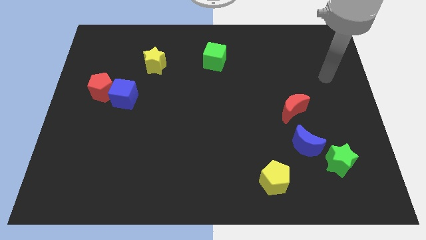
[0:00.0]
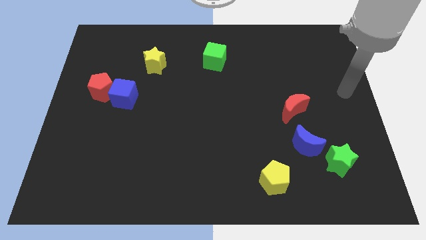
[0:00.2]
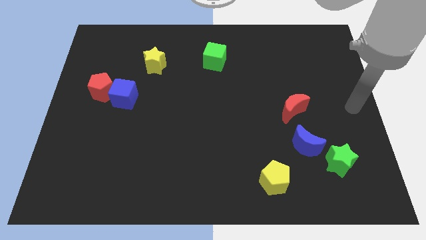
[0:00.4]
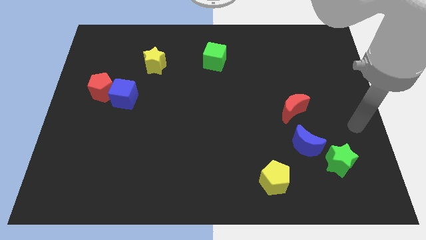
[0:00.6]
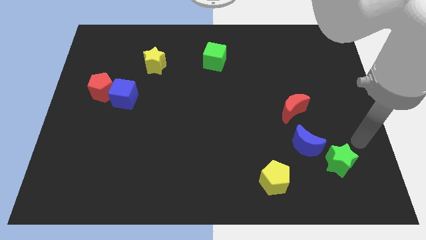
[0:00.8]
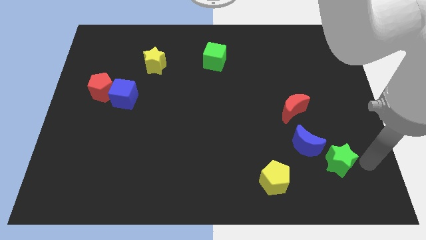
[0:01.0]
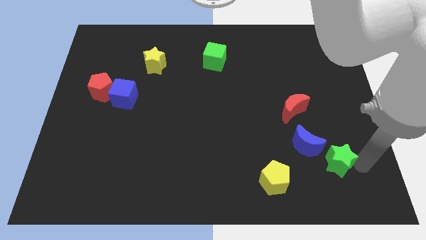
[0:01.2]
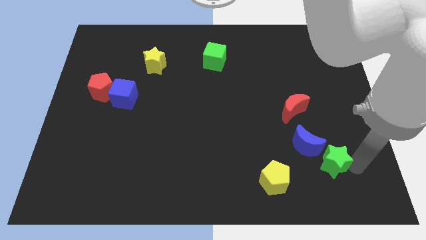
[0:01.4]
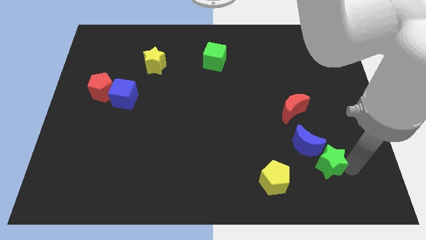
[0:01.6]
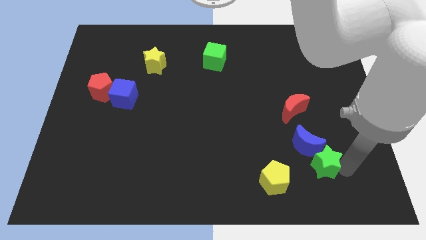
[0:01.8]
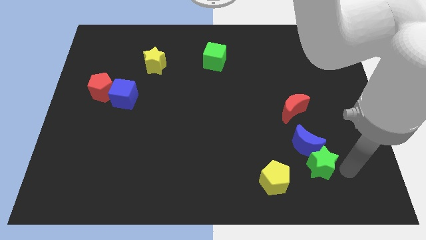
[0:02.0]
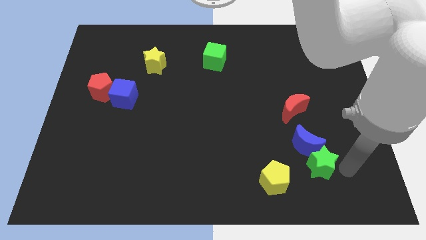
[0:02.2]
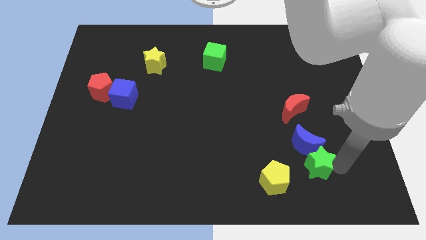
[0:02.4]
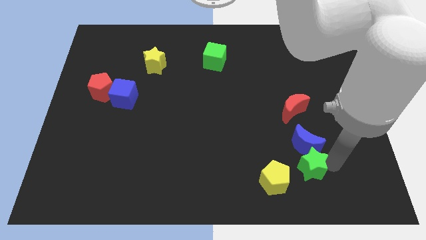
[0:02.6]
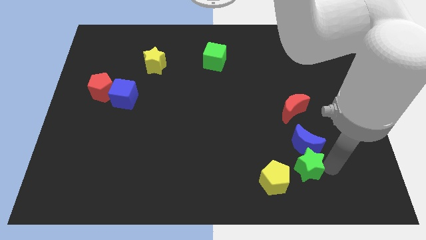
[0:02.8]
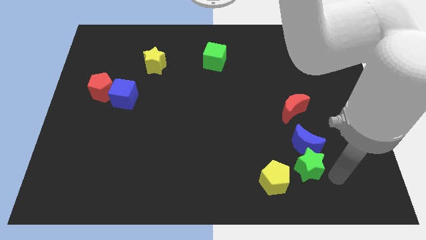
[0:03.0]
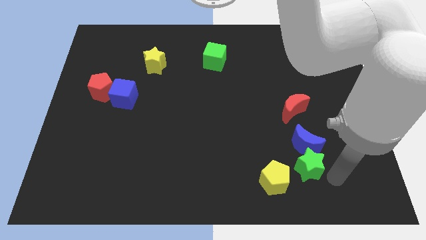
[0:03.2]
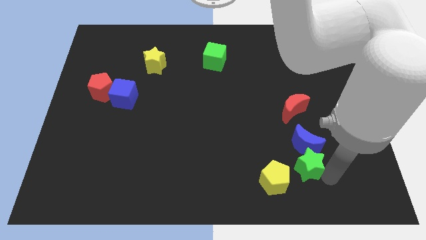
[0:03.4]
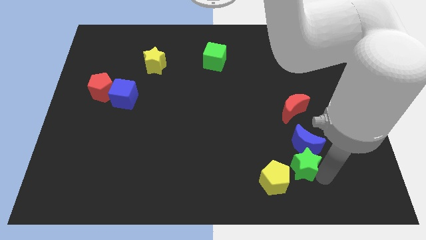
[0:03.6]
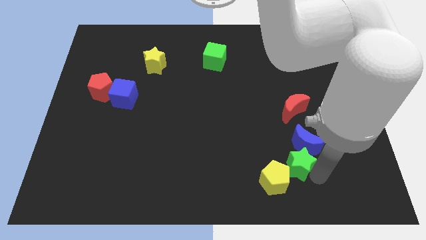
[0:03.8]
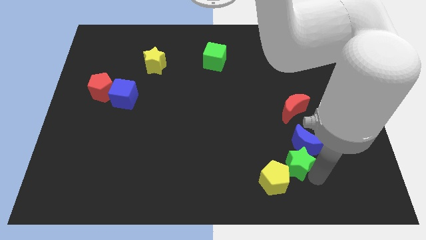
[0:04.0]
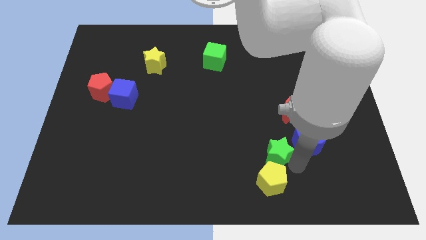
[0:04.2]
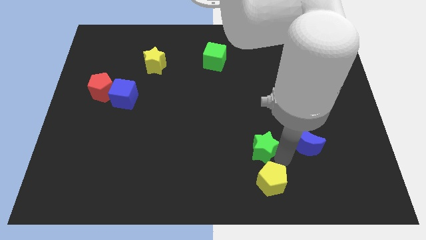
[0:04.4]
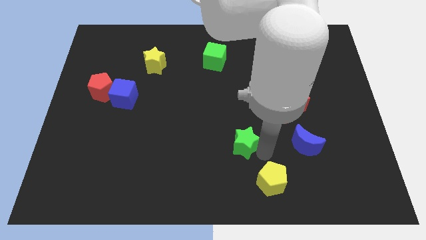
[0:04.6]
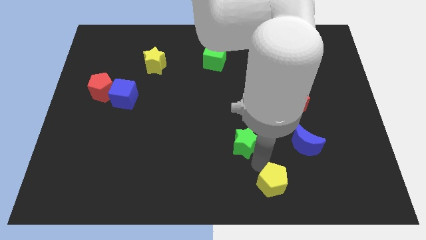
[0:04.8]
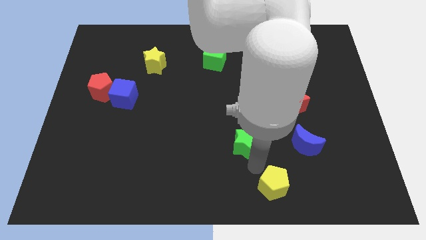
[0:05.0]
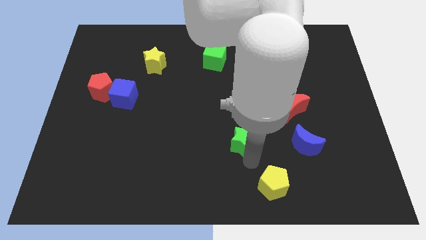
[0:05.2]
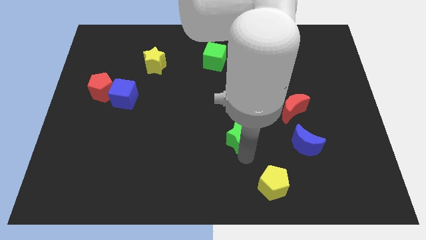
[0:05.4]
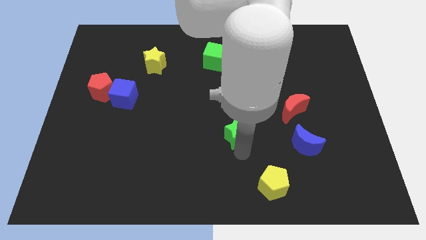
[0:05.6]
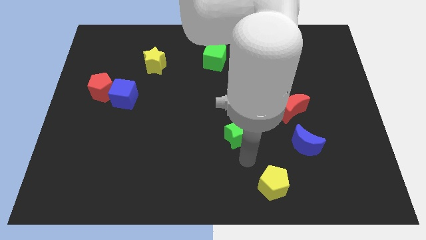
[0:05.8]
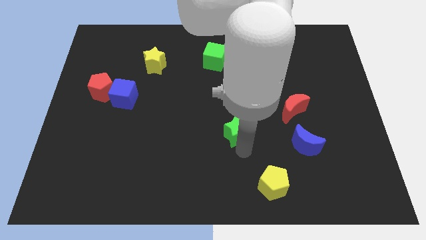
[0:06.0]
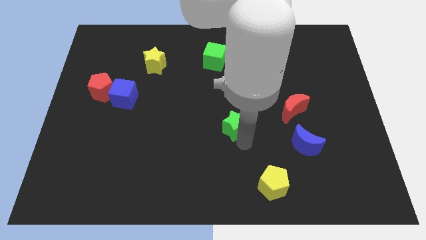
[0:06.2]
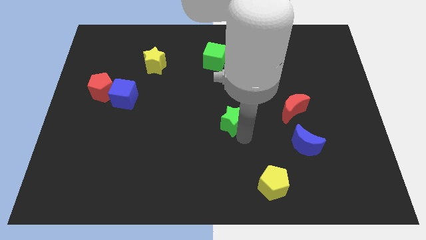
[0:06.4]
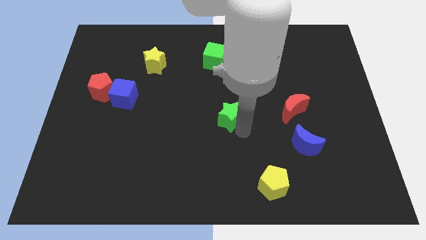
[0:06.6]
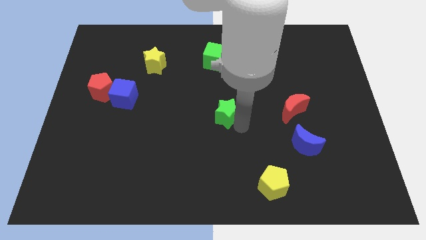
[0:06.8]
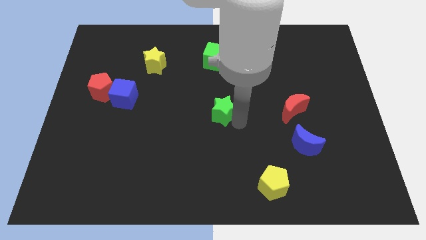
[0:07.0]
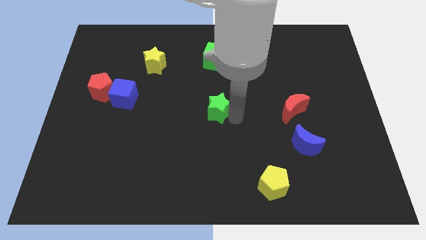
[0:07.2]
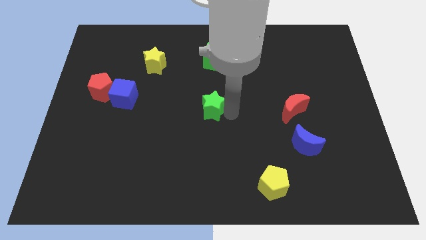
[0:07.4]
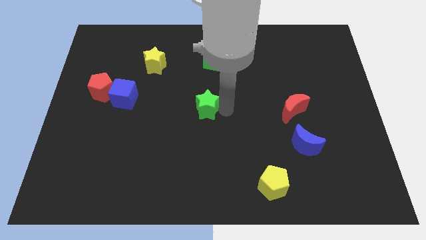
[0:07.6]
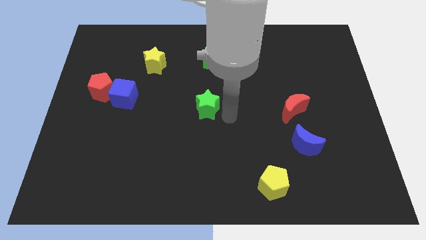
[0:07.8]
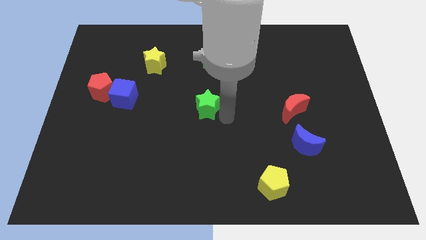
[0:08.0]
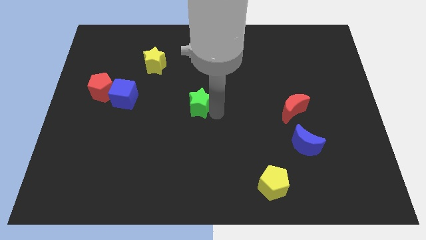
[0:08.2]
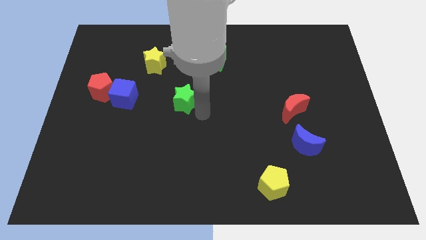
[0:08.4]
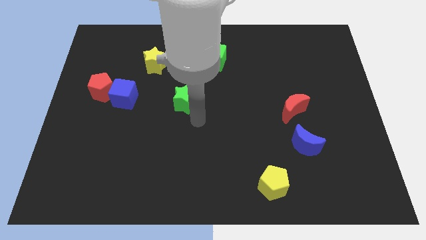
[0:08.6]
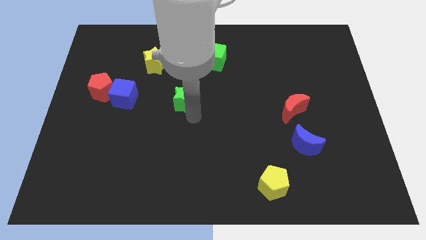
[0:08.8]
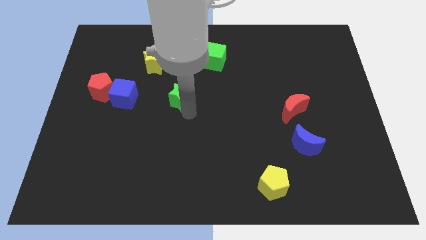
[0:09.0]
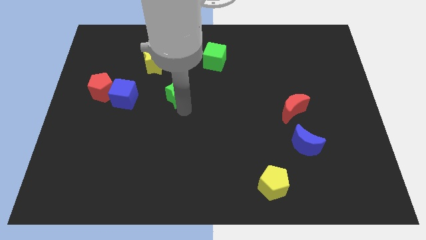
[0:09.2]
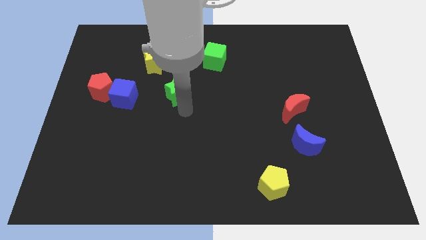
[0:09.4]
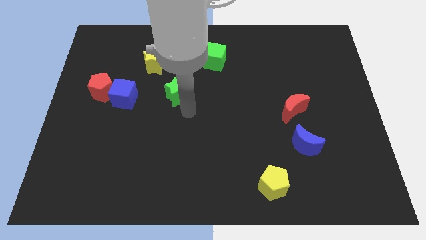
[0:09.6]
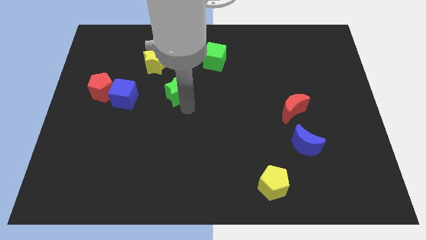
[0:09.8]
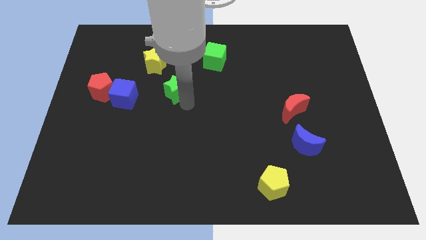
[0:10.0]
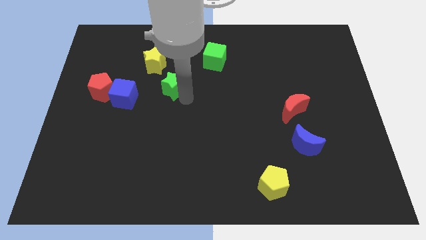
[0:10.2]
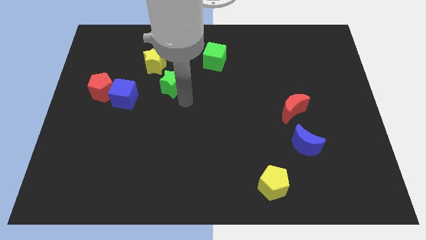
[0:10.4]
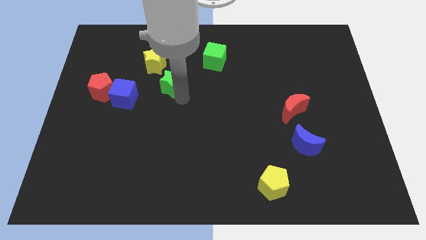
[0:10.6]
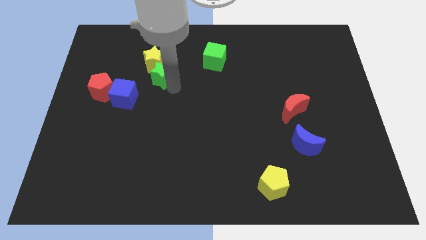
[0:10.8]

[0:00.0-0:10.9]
move the green star towards the yellow star
